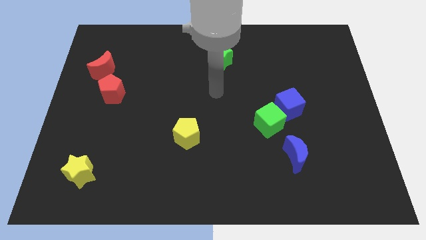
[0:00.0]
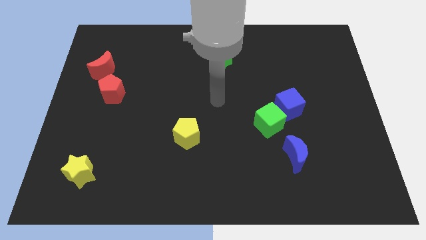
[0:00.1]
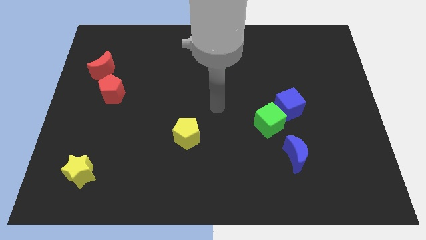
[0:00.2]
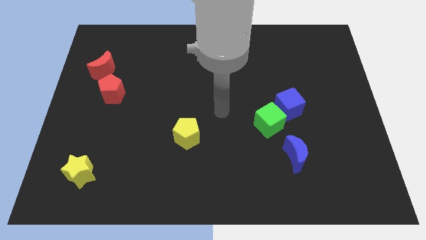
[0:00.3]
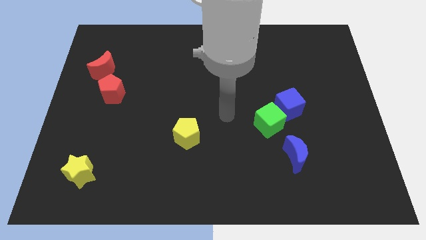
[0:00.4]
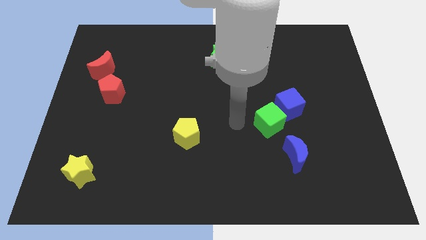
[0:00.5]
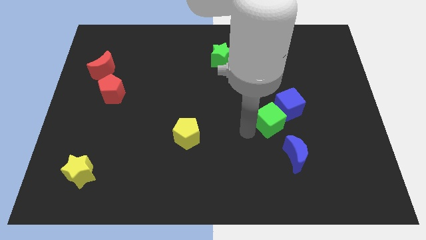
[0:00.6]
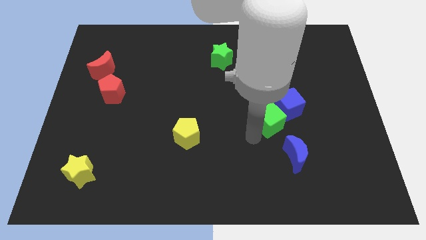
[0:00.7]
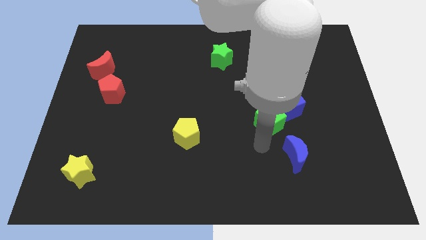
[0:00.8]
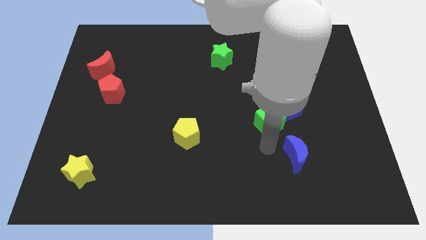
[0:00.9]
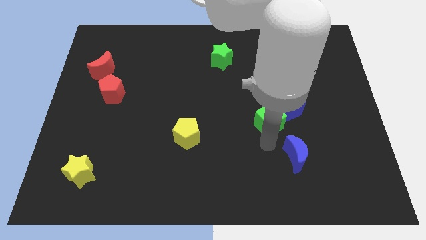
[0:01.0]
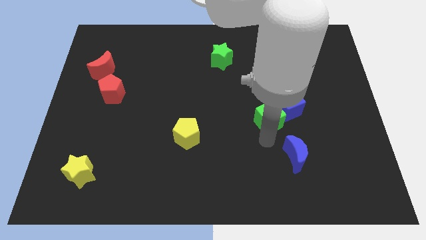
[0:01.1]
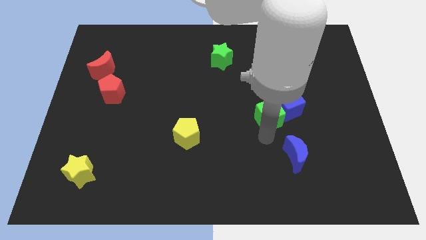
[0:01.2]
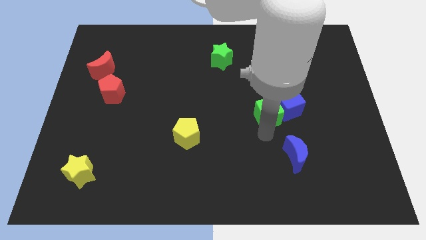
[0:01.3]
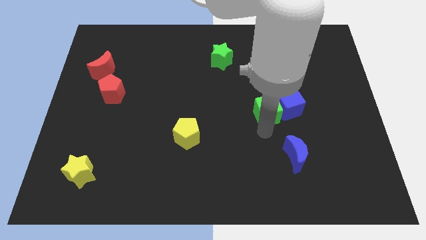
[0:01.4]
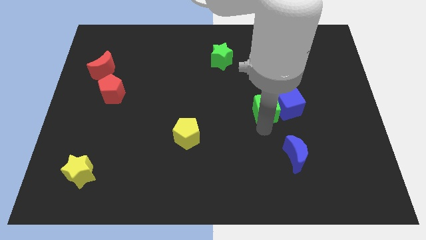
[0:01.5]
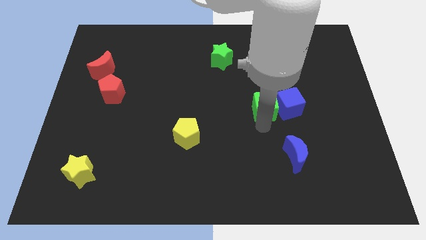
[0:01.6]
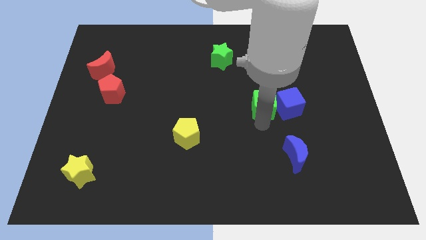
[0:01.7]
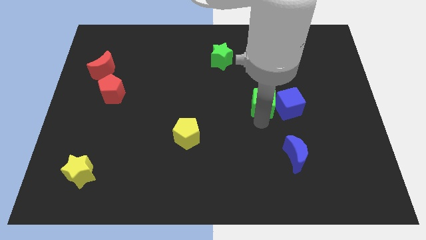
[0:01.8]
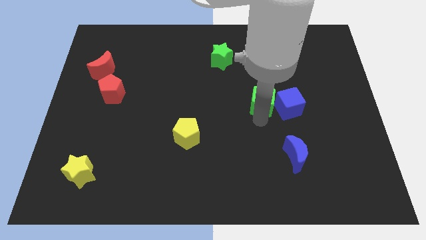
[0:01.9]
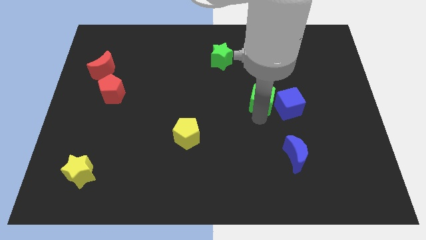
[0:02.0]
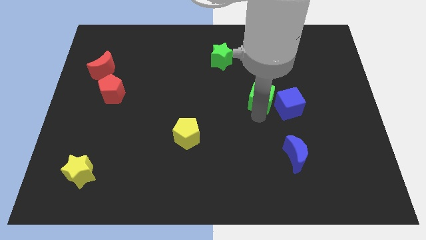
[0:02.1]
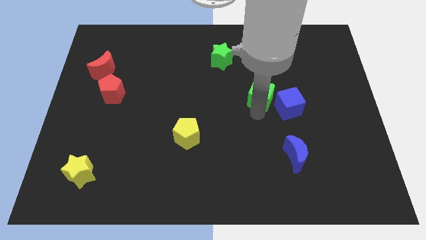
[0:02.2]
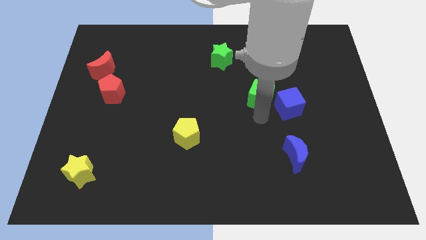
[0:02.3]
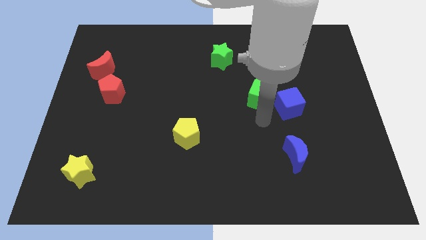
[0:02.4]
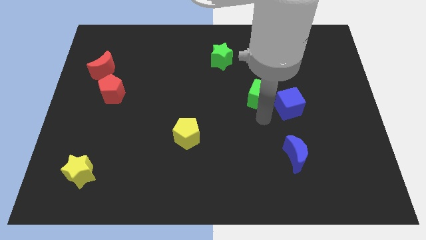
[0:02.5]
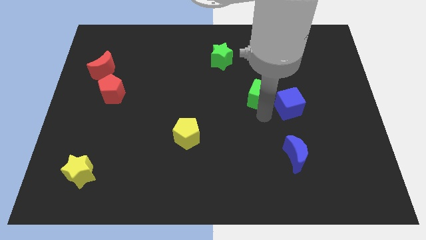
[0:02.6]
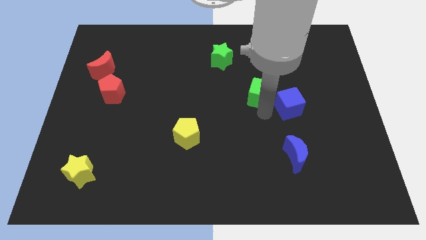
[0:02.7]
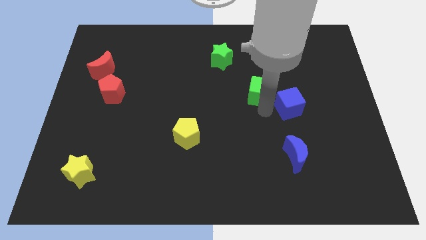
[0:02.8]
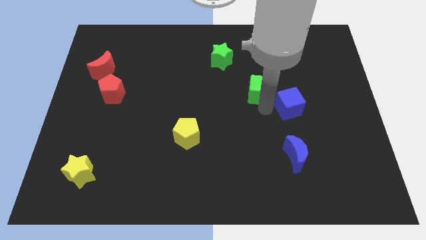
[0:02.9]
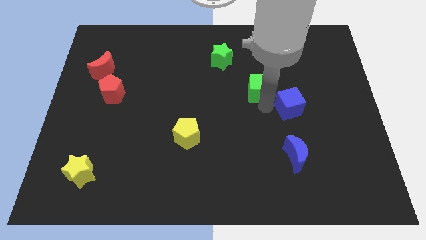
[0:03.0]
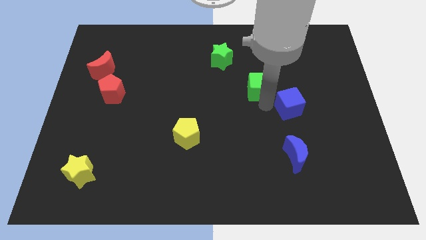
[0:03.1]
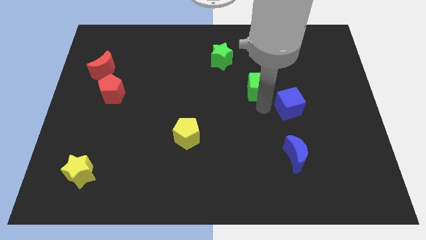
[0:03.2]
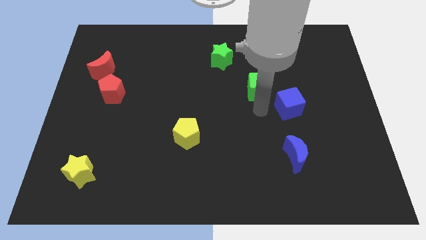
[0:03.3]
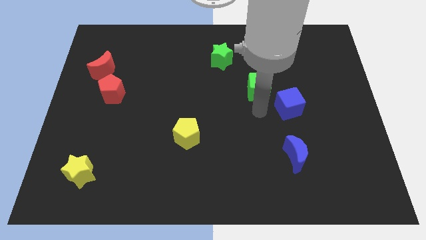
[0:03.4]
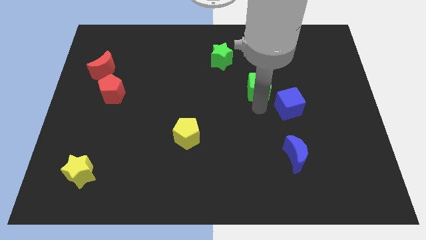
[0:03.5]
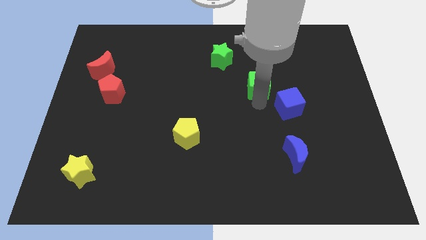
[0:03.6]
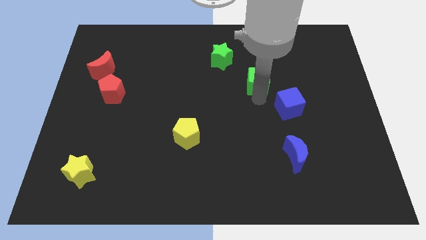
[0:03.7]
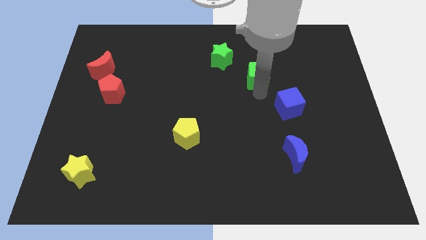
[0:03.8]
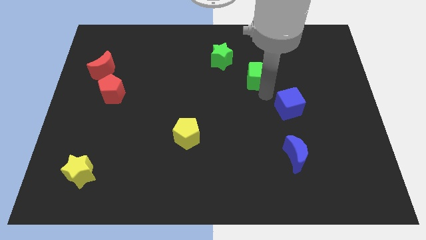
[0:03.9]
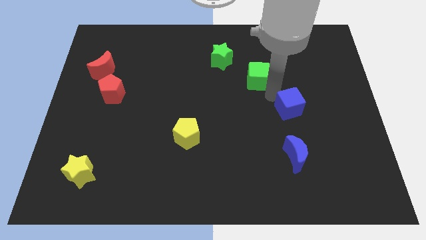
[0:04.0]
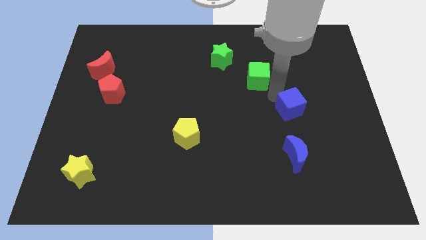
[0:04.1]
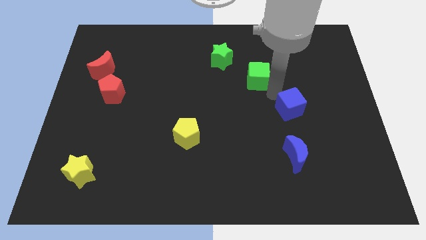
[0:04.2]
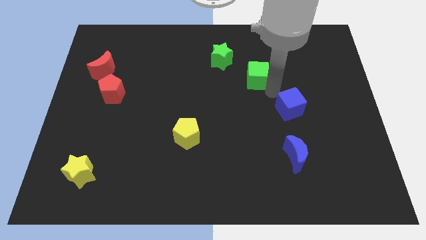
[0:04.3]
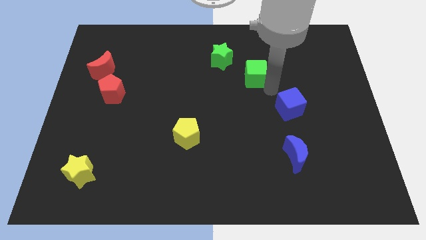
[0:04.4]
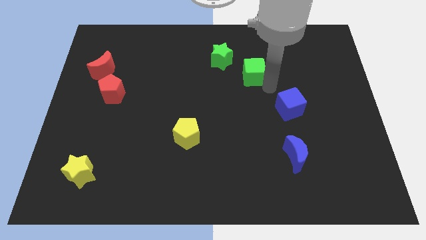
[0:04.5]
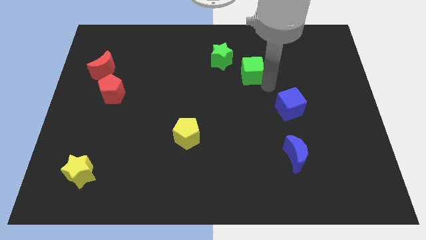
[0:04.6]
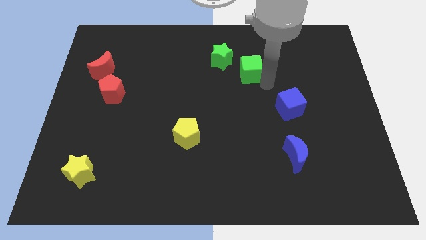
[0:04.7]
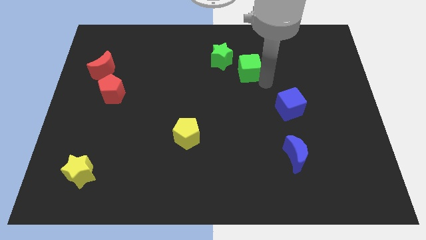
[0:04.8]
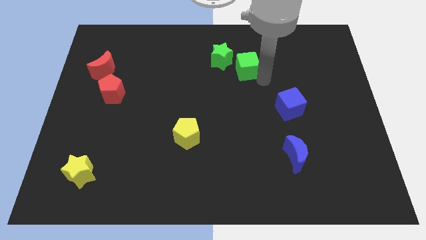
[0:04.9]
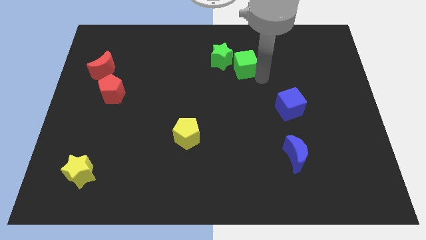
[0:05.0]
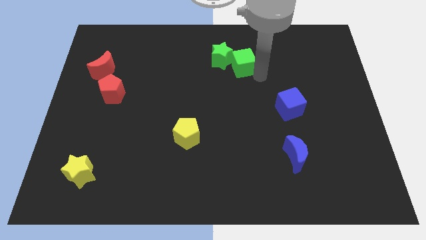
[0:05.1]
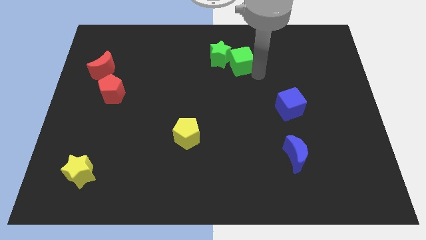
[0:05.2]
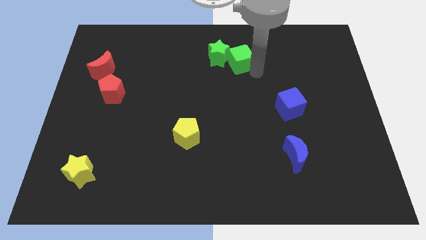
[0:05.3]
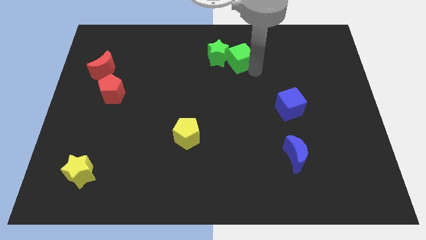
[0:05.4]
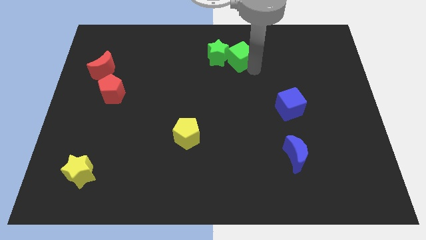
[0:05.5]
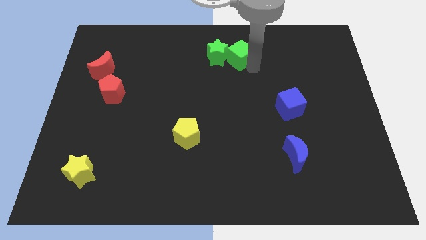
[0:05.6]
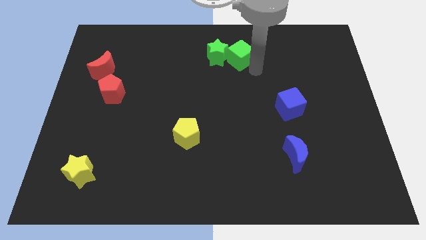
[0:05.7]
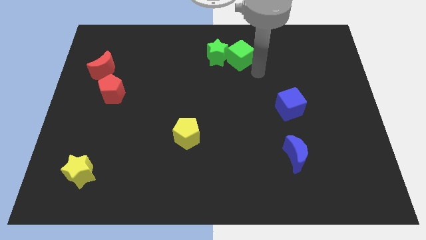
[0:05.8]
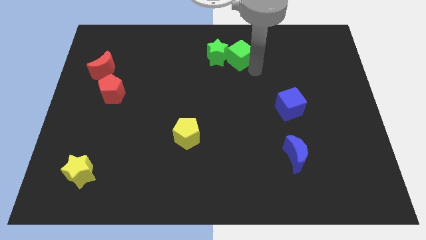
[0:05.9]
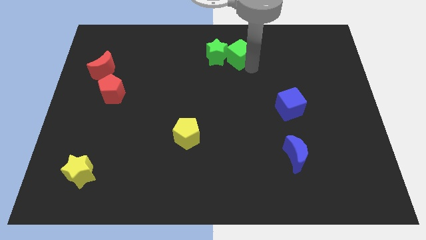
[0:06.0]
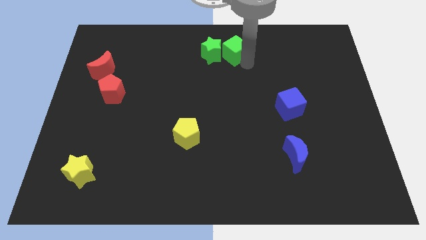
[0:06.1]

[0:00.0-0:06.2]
put the green cube to the top
